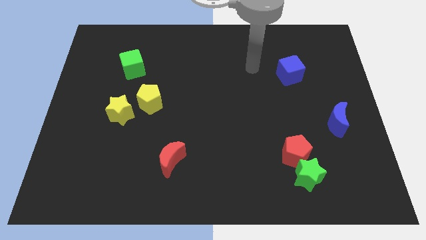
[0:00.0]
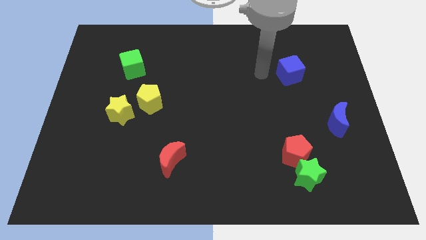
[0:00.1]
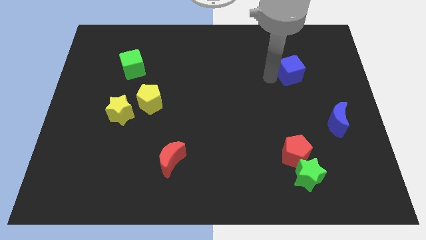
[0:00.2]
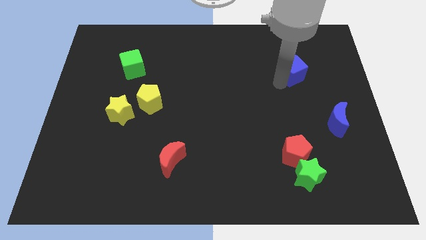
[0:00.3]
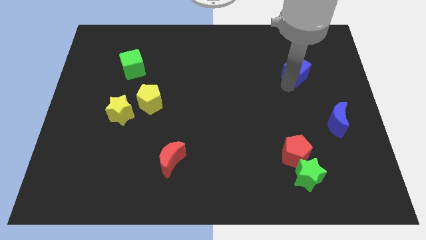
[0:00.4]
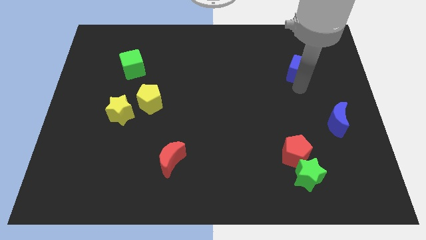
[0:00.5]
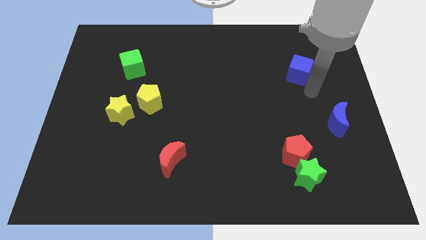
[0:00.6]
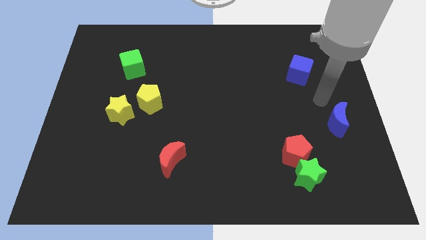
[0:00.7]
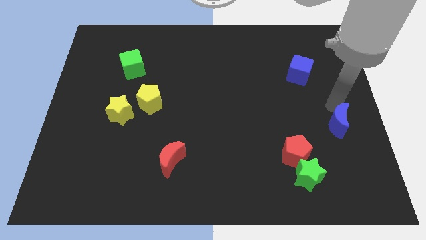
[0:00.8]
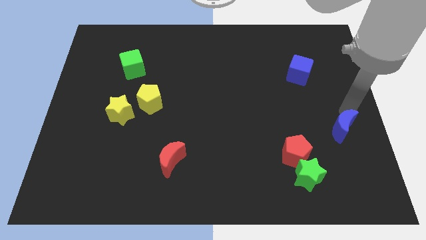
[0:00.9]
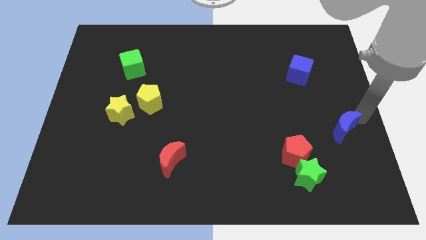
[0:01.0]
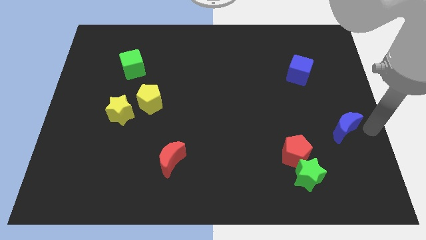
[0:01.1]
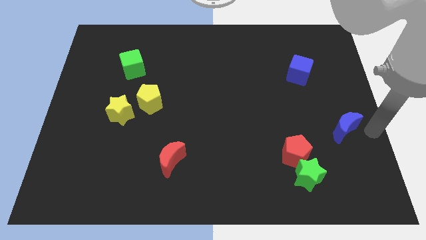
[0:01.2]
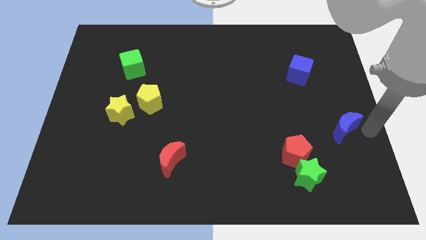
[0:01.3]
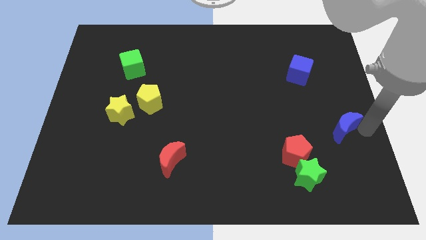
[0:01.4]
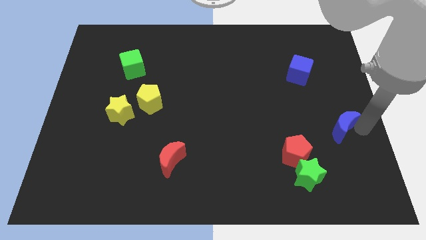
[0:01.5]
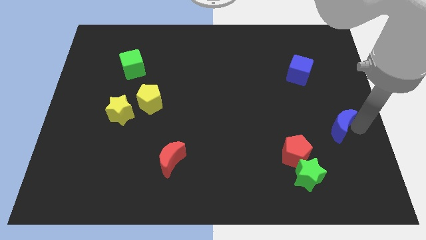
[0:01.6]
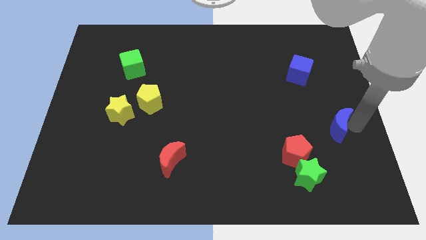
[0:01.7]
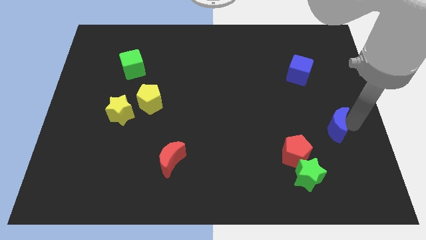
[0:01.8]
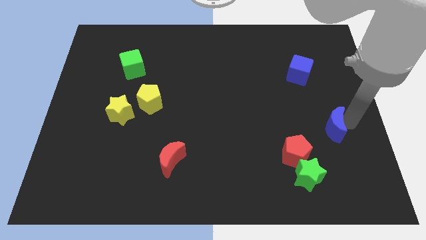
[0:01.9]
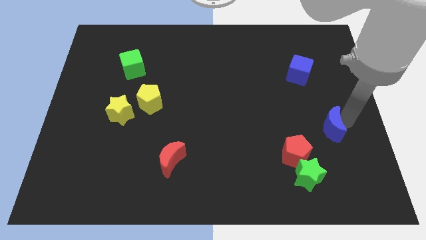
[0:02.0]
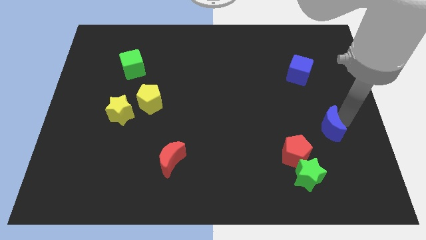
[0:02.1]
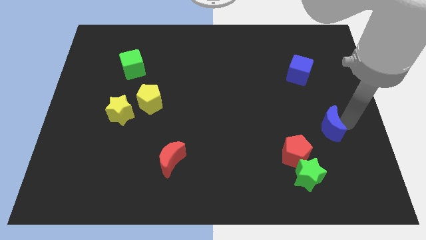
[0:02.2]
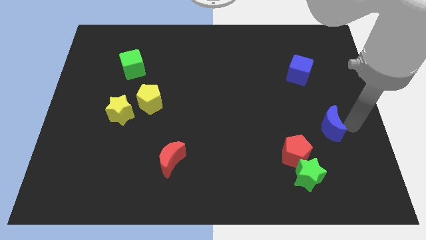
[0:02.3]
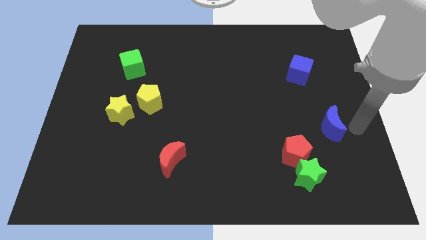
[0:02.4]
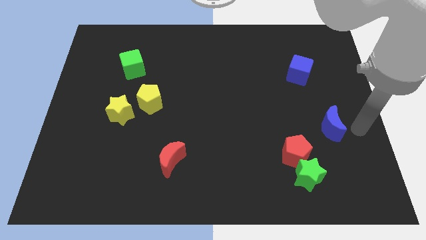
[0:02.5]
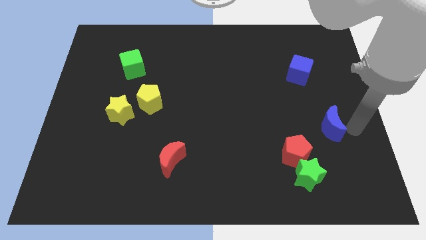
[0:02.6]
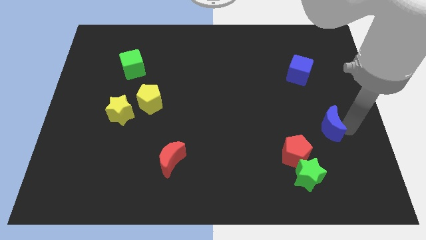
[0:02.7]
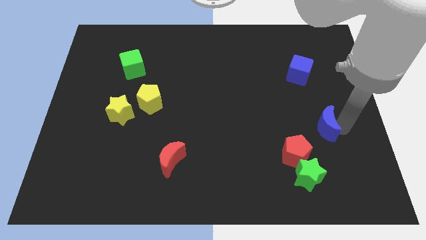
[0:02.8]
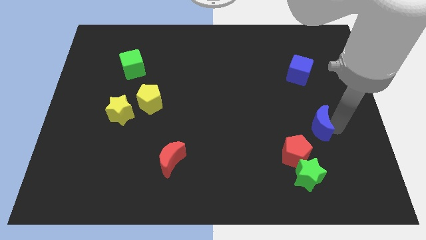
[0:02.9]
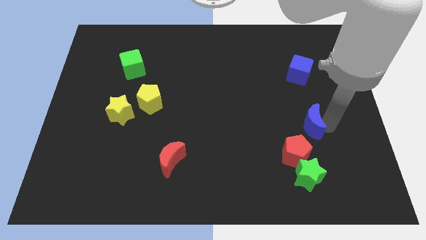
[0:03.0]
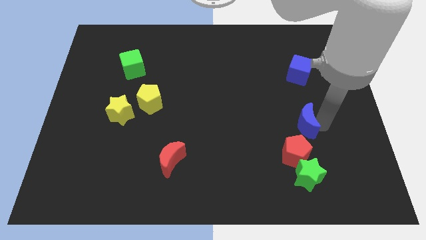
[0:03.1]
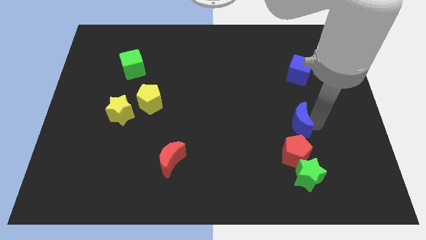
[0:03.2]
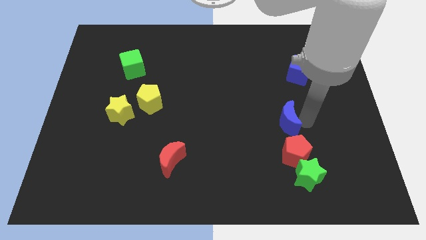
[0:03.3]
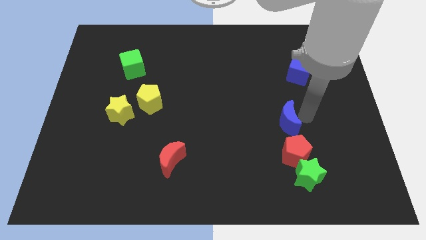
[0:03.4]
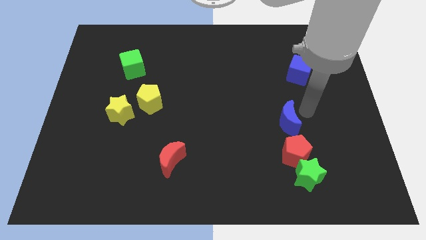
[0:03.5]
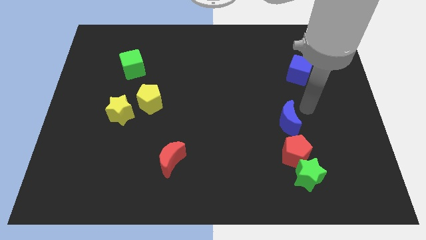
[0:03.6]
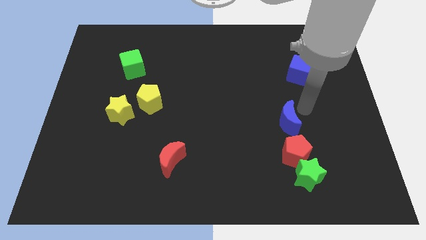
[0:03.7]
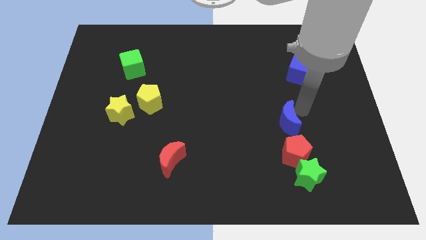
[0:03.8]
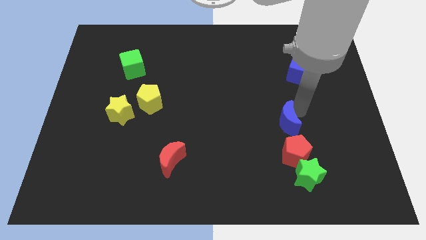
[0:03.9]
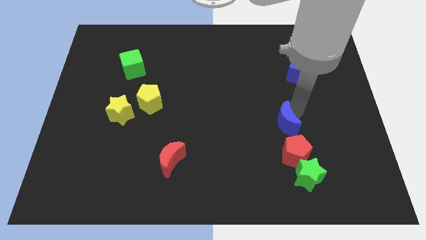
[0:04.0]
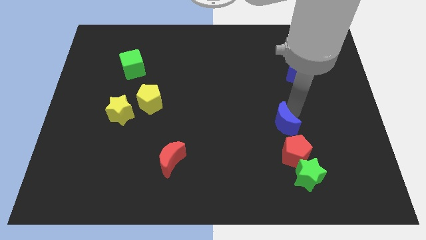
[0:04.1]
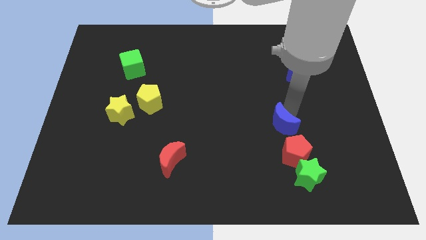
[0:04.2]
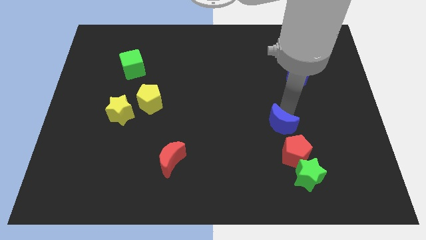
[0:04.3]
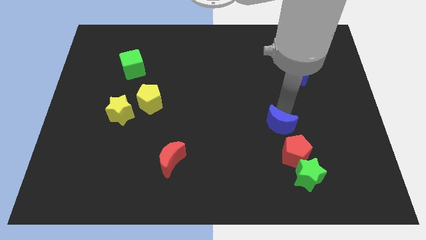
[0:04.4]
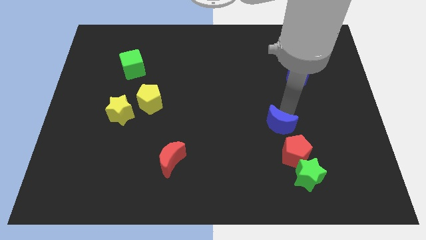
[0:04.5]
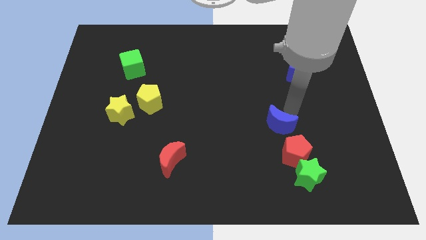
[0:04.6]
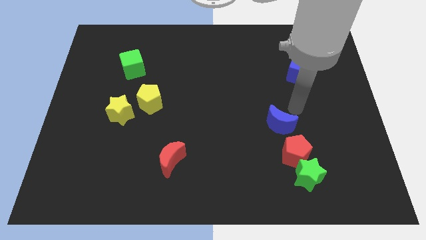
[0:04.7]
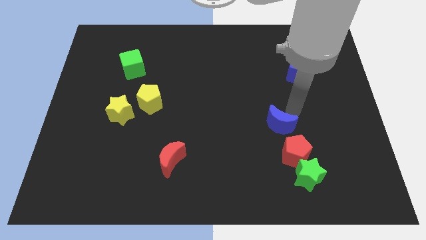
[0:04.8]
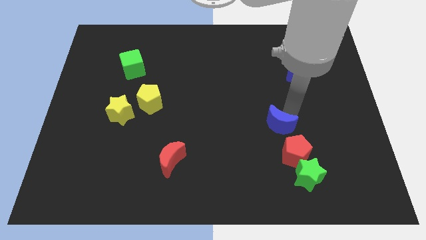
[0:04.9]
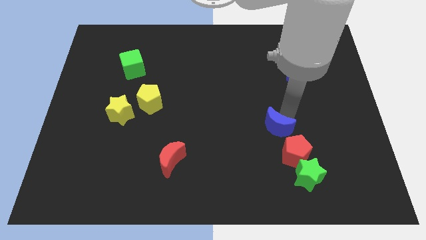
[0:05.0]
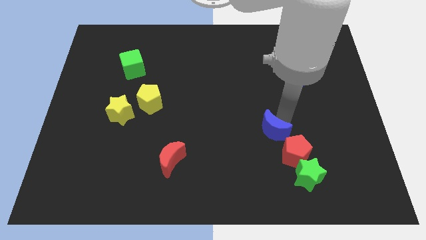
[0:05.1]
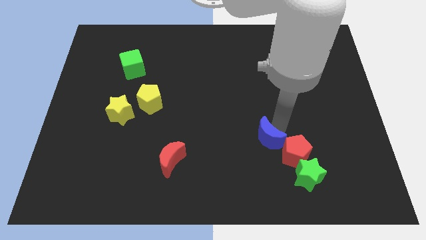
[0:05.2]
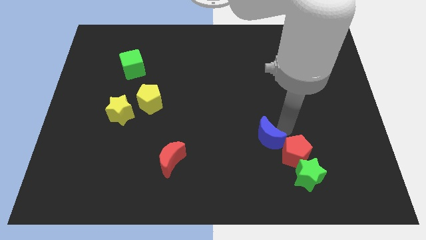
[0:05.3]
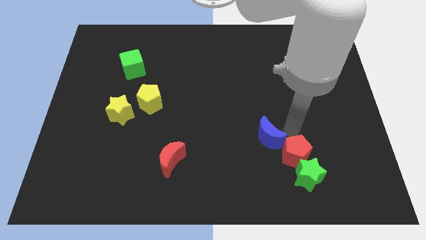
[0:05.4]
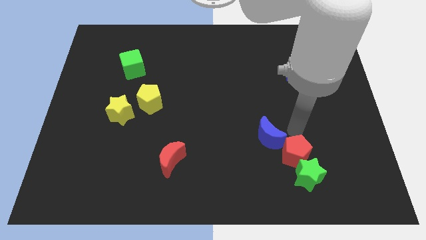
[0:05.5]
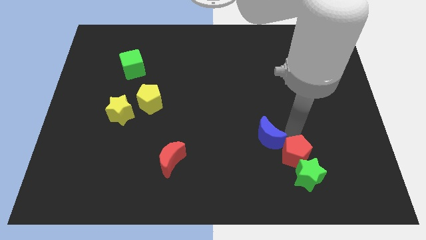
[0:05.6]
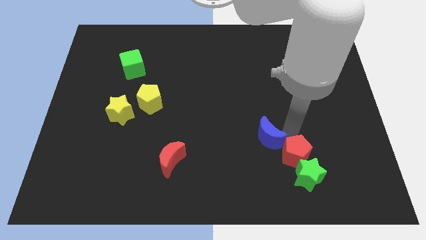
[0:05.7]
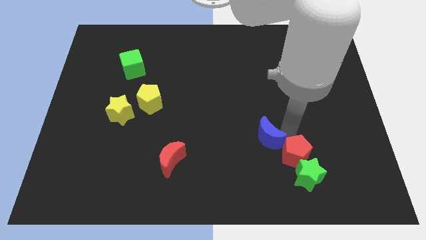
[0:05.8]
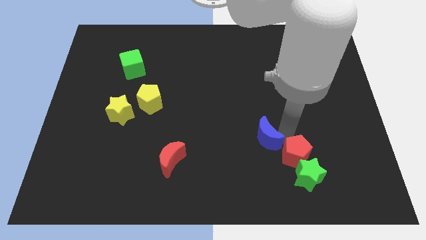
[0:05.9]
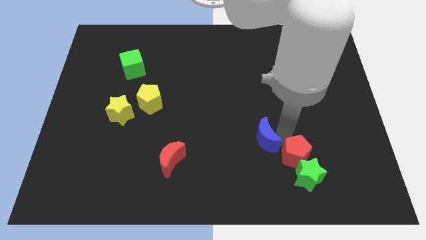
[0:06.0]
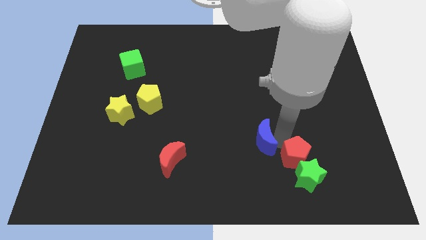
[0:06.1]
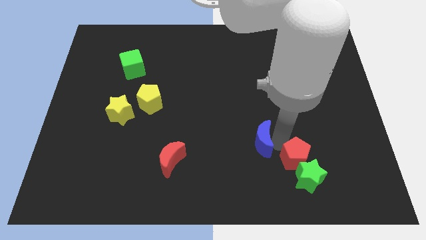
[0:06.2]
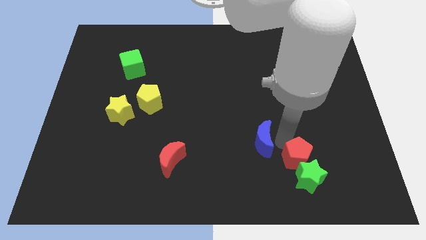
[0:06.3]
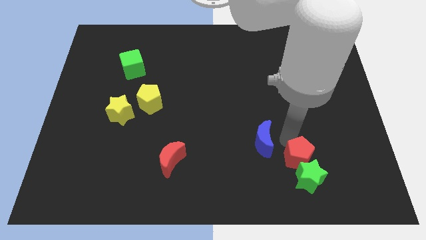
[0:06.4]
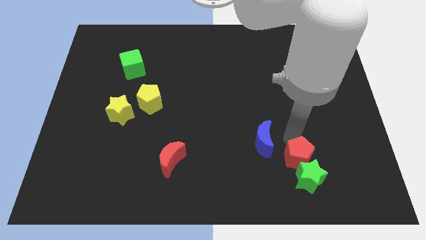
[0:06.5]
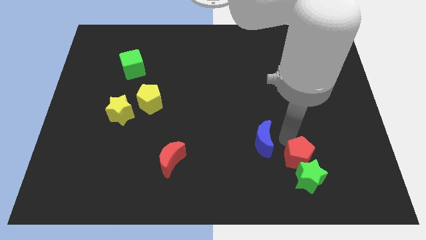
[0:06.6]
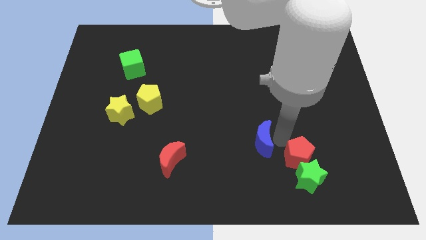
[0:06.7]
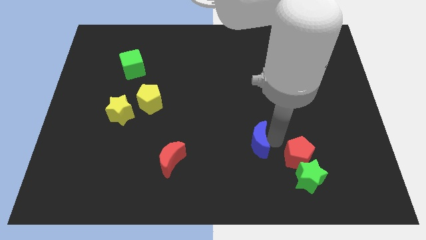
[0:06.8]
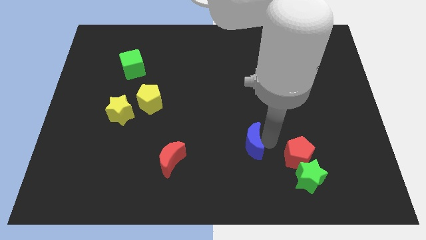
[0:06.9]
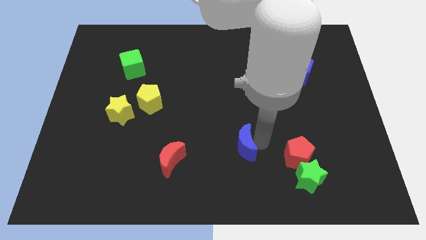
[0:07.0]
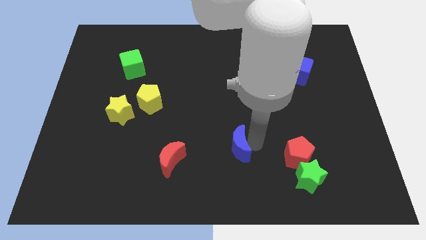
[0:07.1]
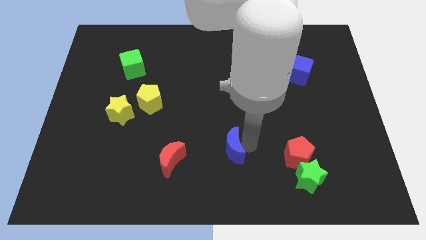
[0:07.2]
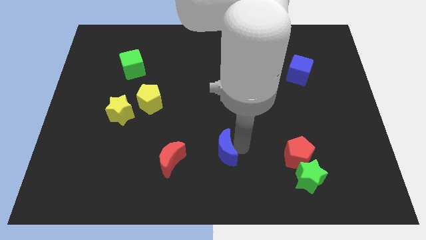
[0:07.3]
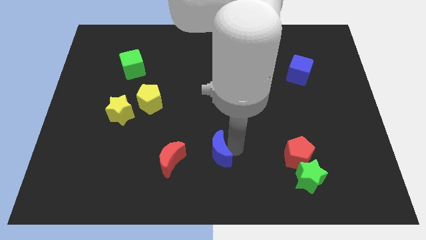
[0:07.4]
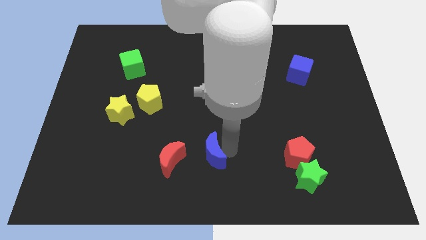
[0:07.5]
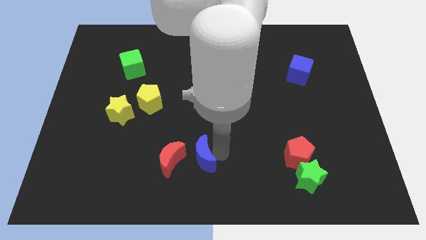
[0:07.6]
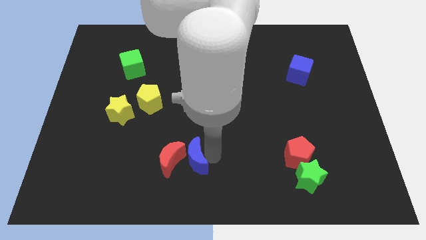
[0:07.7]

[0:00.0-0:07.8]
push the blue moon towards the red moon
